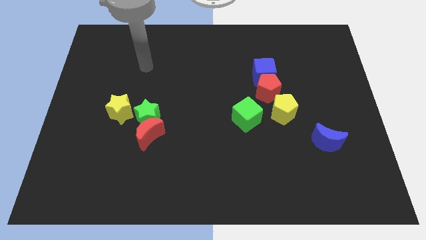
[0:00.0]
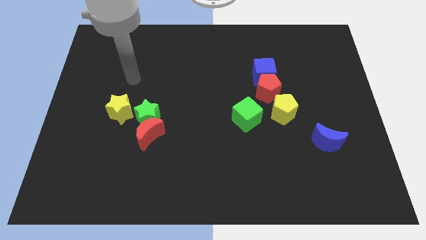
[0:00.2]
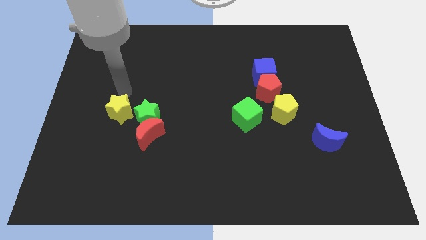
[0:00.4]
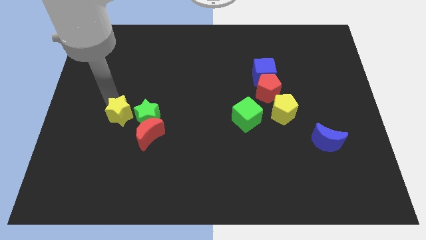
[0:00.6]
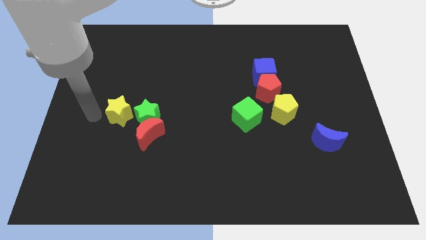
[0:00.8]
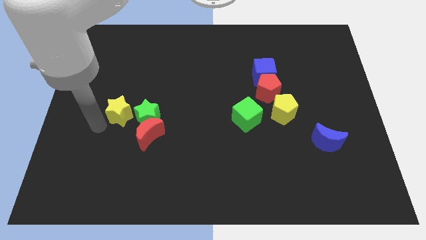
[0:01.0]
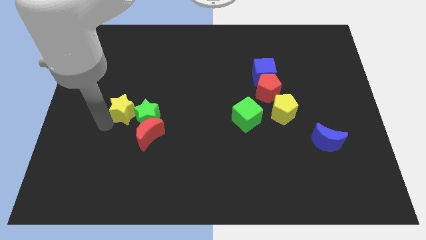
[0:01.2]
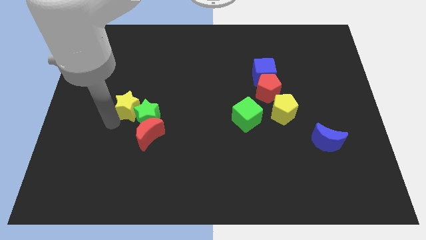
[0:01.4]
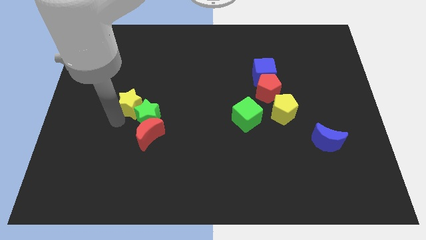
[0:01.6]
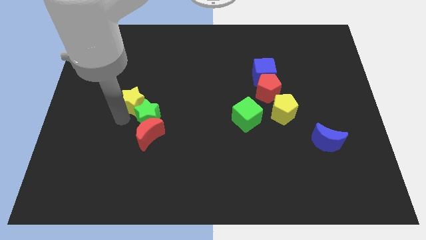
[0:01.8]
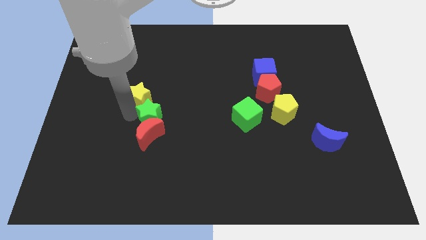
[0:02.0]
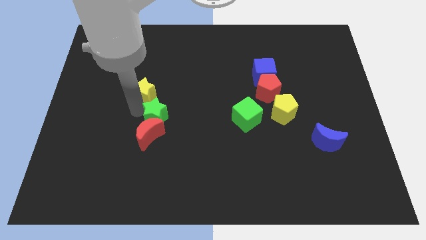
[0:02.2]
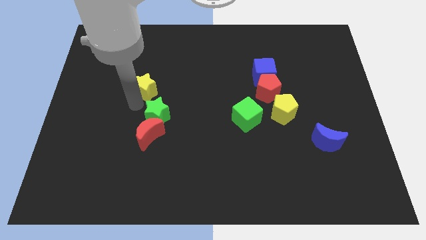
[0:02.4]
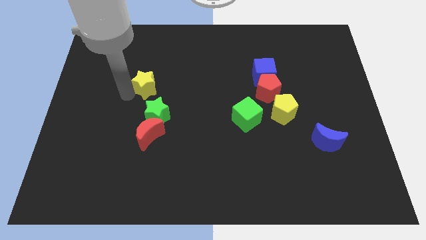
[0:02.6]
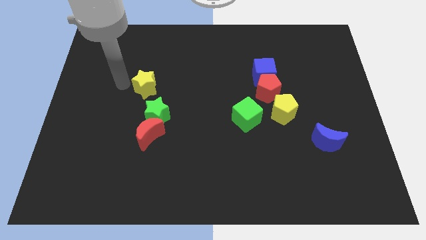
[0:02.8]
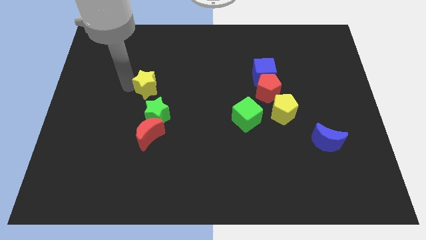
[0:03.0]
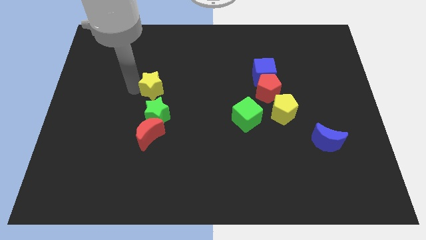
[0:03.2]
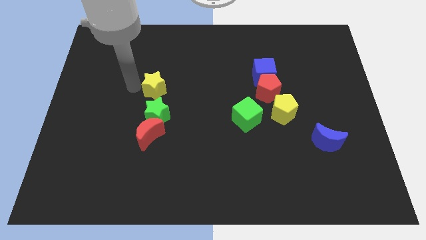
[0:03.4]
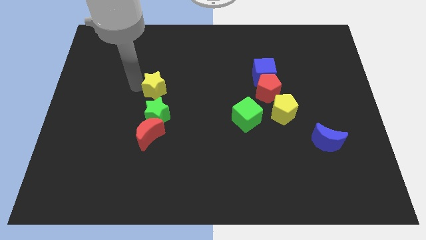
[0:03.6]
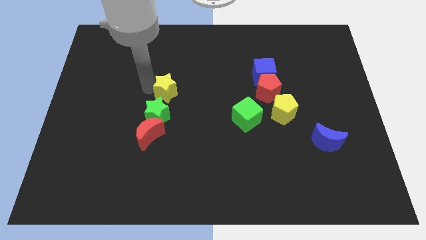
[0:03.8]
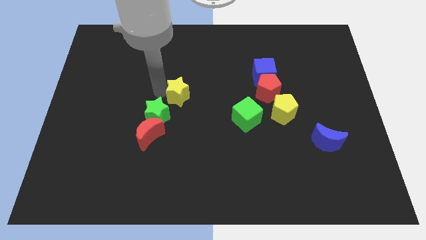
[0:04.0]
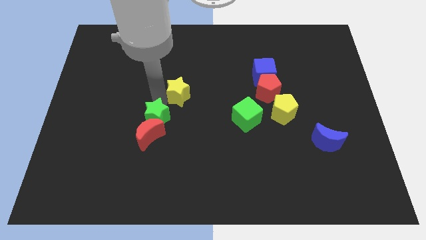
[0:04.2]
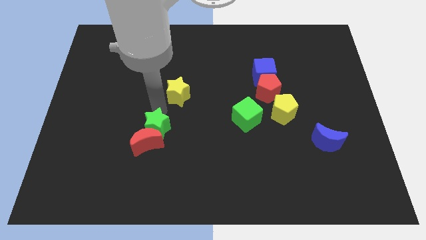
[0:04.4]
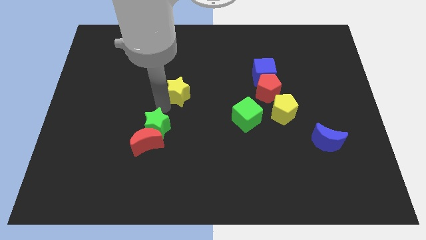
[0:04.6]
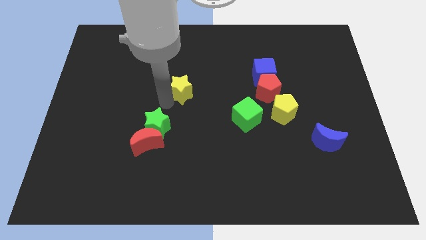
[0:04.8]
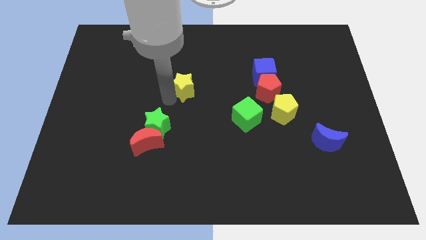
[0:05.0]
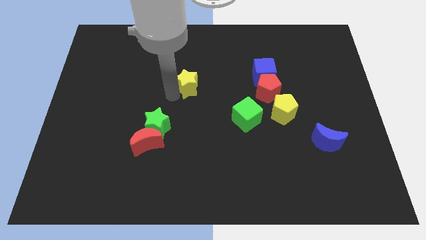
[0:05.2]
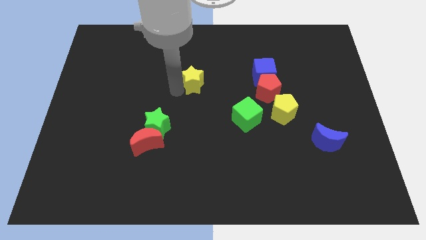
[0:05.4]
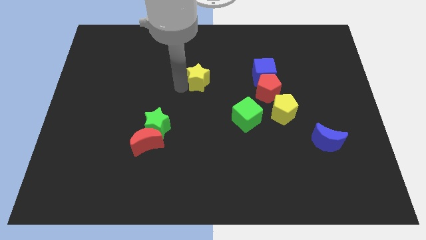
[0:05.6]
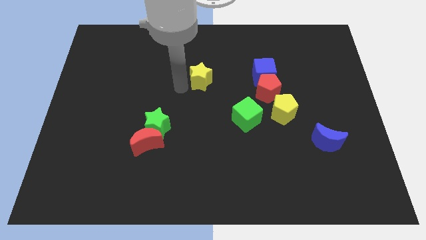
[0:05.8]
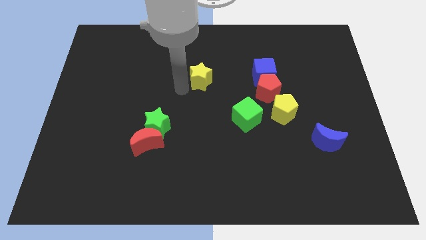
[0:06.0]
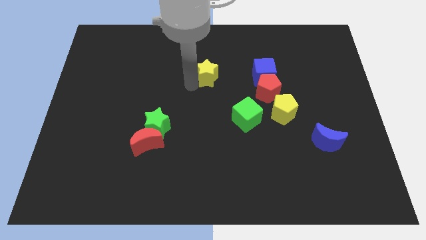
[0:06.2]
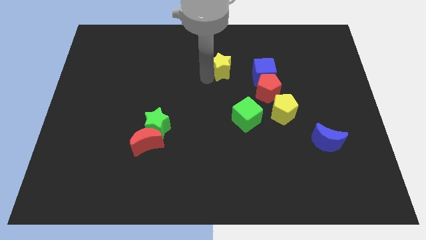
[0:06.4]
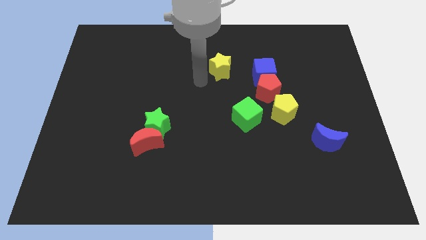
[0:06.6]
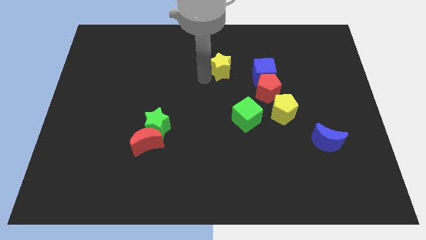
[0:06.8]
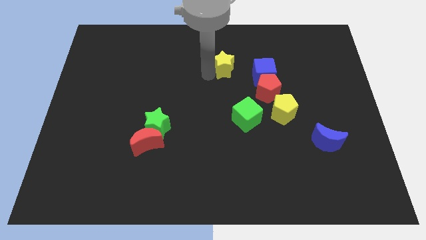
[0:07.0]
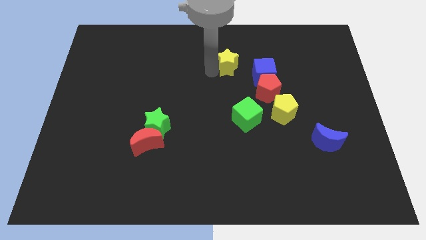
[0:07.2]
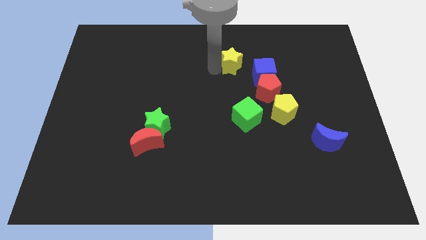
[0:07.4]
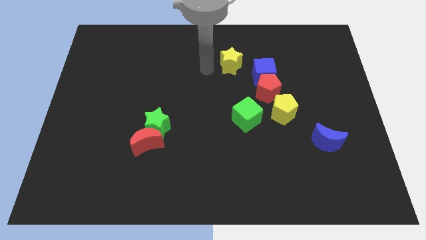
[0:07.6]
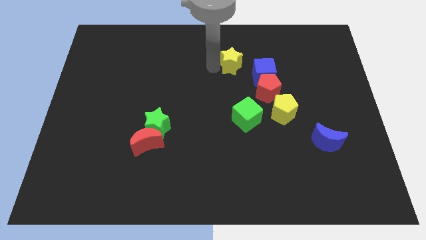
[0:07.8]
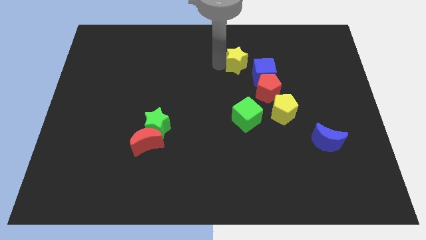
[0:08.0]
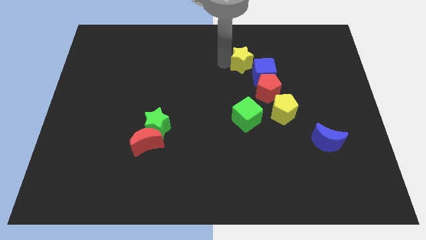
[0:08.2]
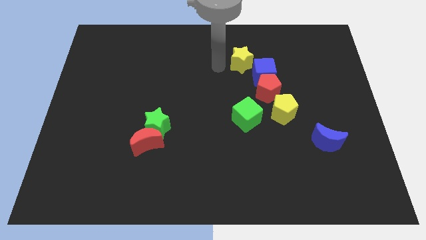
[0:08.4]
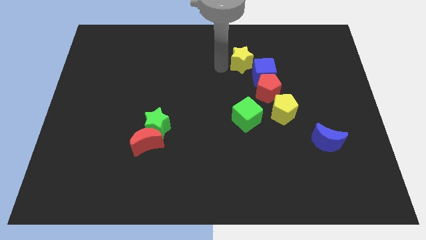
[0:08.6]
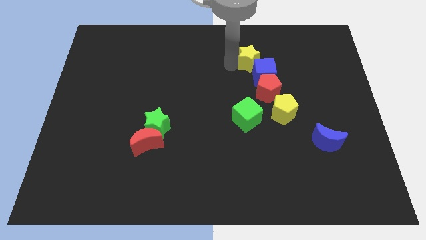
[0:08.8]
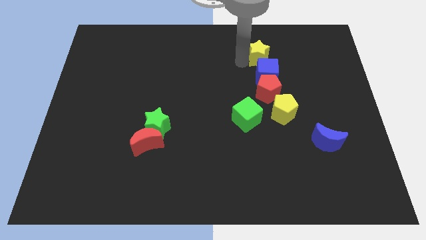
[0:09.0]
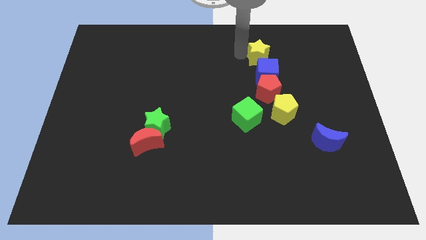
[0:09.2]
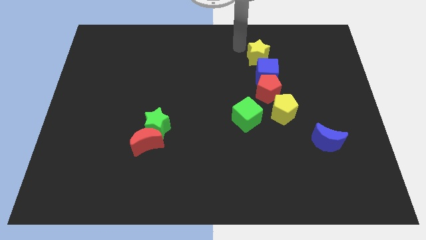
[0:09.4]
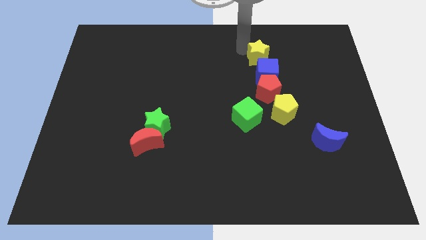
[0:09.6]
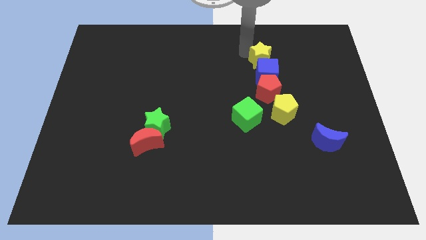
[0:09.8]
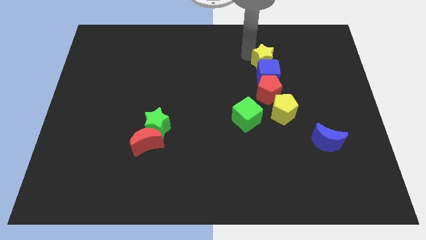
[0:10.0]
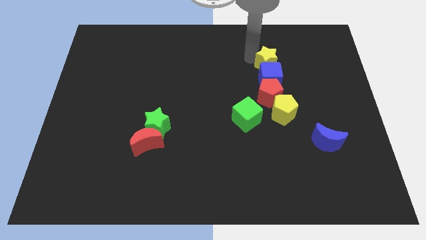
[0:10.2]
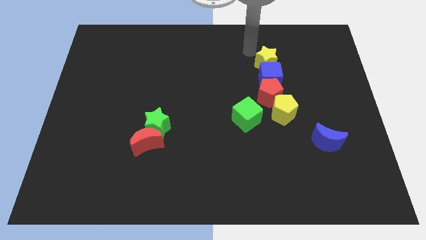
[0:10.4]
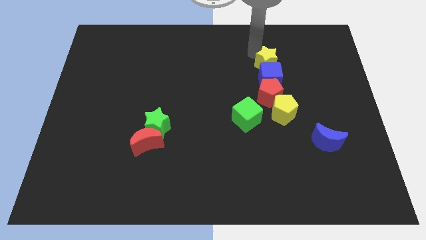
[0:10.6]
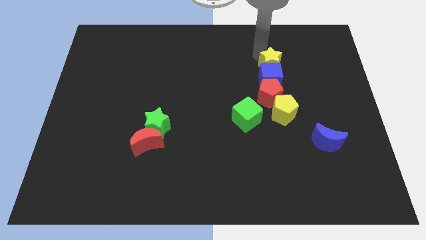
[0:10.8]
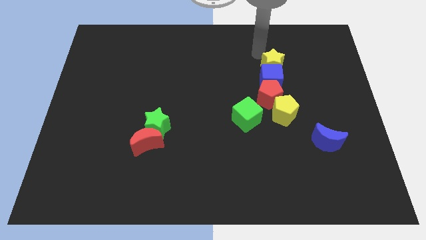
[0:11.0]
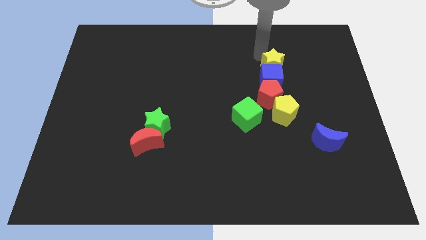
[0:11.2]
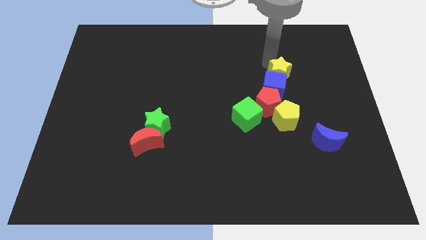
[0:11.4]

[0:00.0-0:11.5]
put the yellow star to the top right of the red pentagon

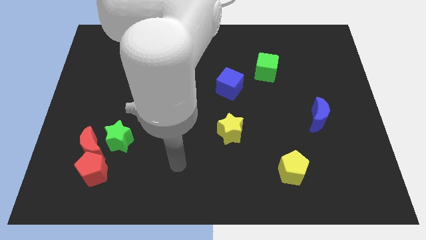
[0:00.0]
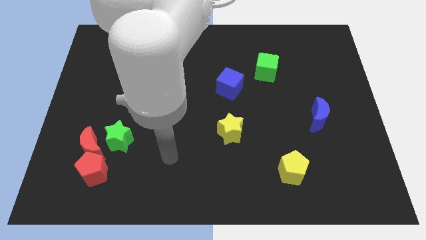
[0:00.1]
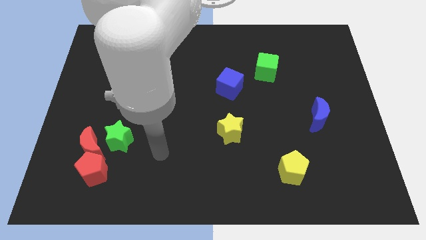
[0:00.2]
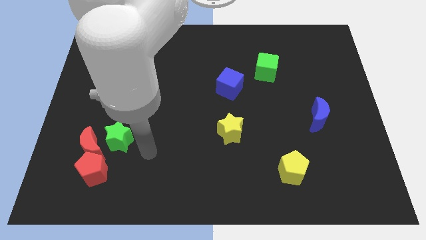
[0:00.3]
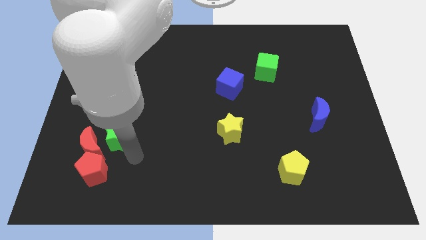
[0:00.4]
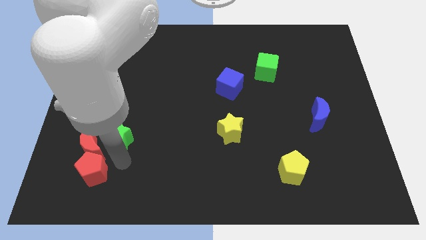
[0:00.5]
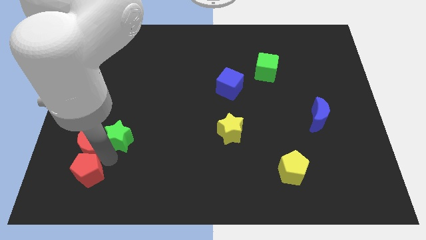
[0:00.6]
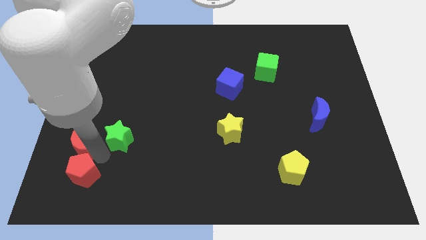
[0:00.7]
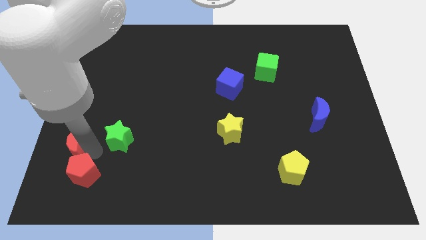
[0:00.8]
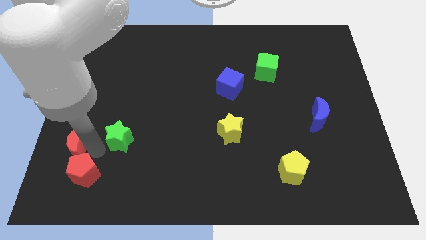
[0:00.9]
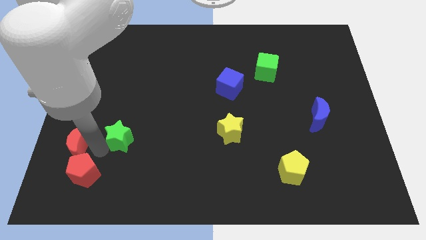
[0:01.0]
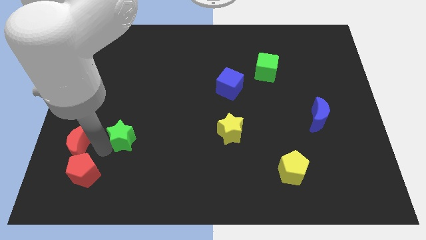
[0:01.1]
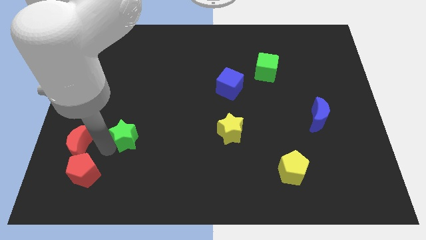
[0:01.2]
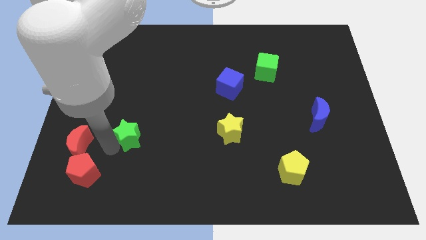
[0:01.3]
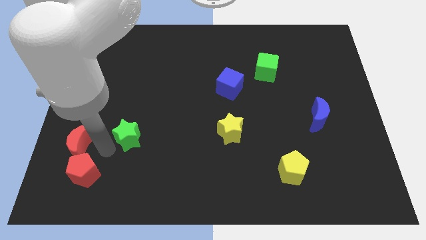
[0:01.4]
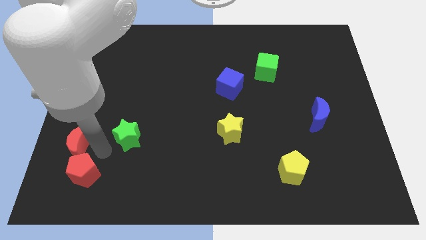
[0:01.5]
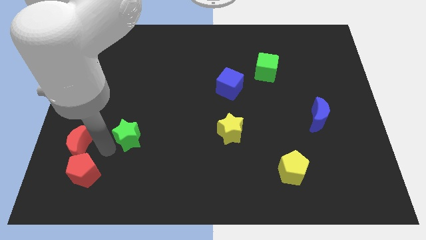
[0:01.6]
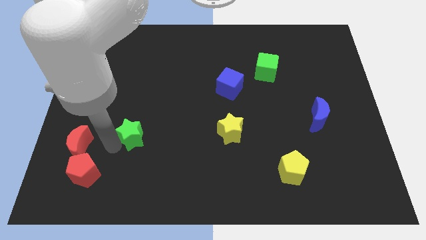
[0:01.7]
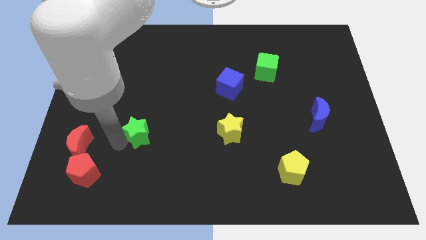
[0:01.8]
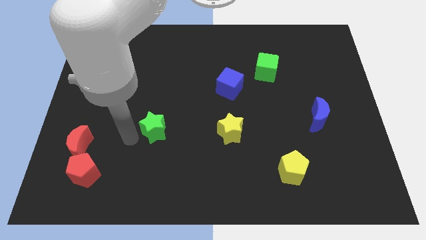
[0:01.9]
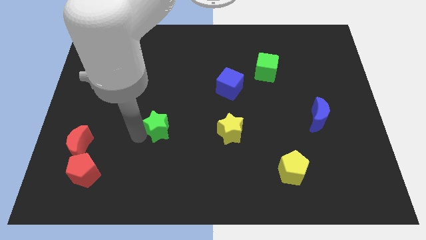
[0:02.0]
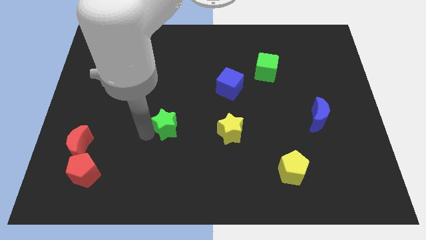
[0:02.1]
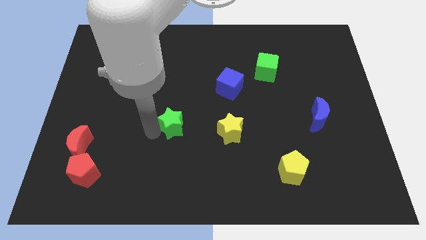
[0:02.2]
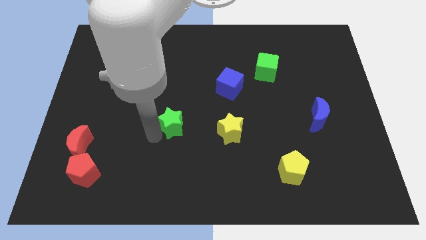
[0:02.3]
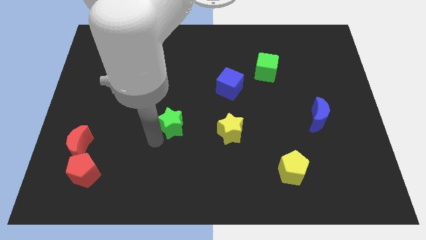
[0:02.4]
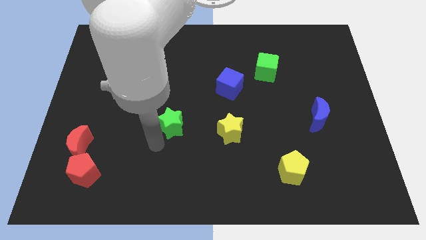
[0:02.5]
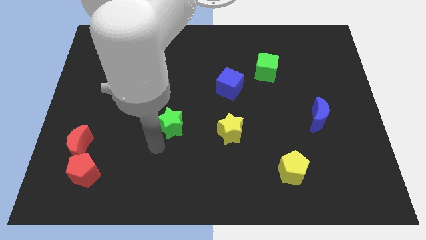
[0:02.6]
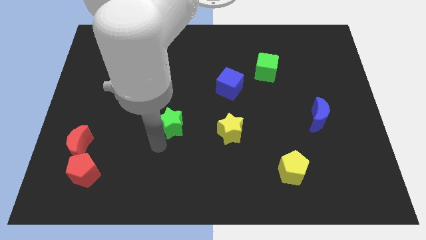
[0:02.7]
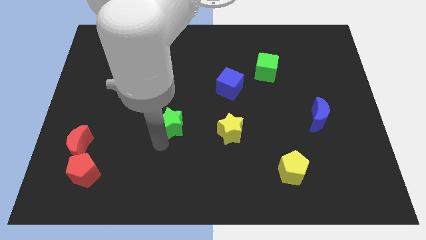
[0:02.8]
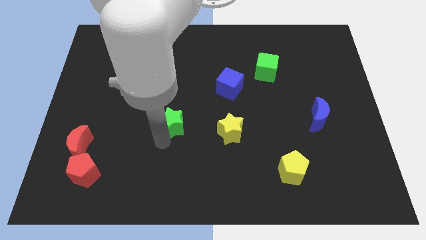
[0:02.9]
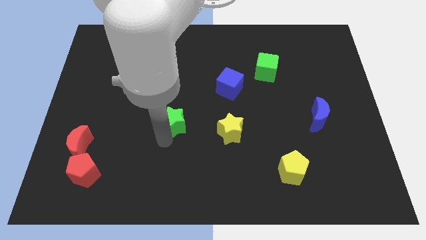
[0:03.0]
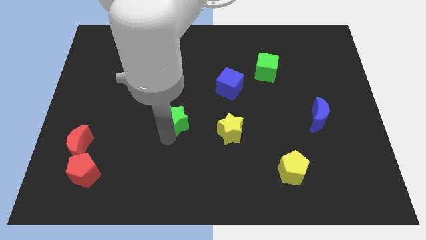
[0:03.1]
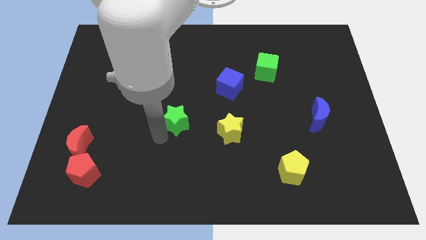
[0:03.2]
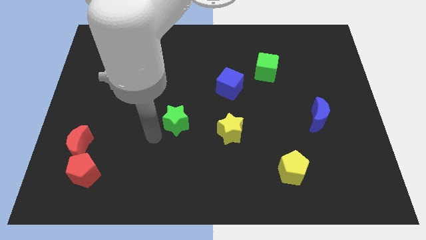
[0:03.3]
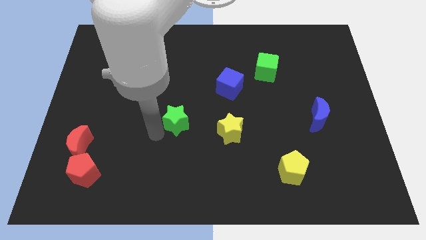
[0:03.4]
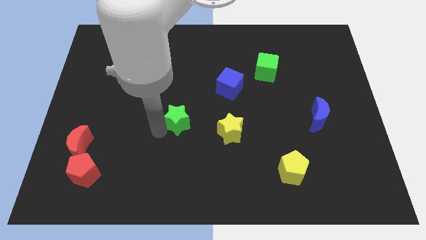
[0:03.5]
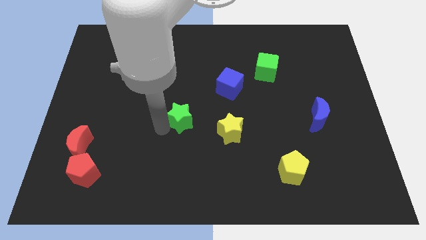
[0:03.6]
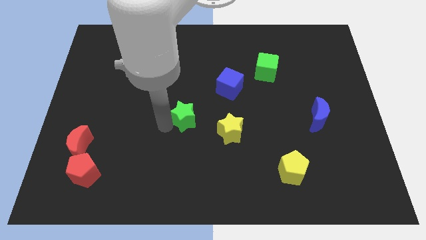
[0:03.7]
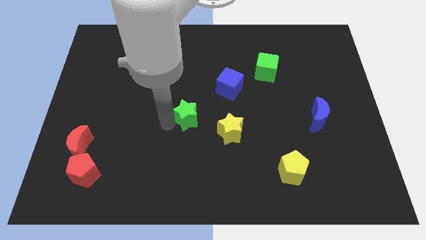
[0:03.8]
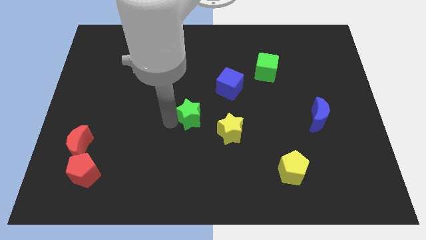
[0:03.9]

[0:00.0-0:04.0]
put the green star to the bottom left of the blue cube
